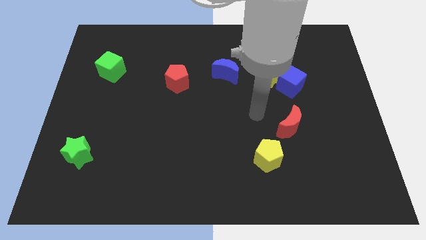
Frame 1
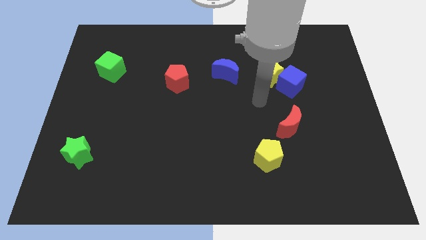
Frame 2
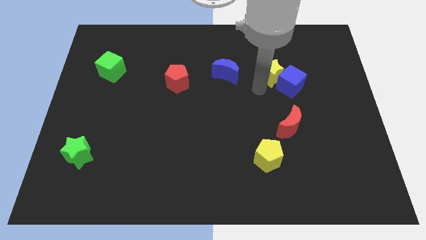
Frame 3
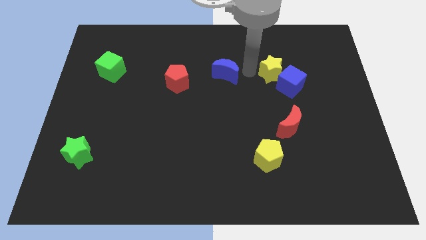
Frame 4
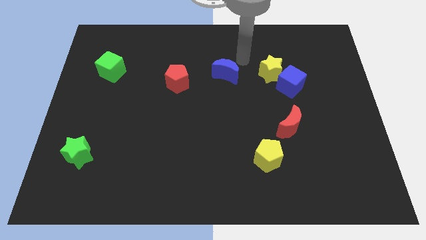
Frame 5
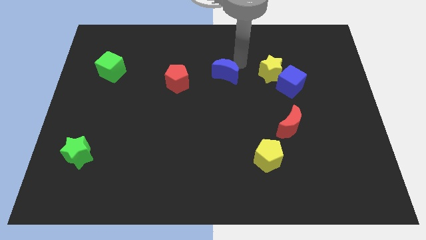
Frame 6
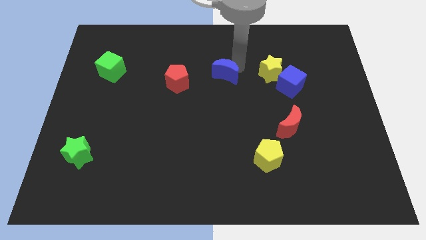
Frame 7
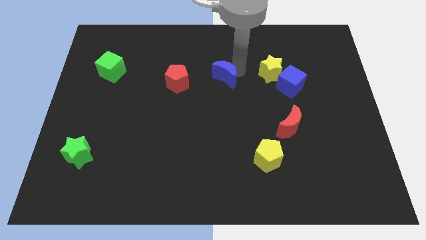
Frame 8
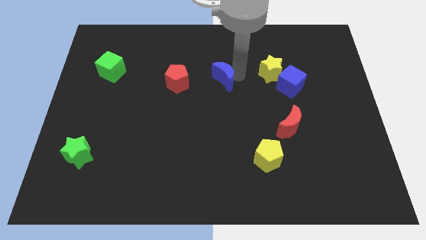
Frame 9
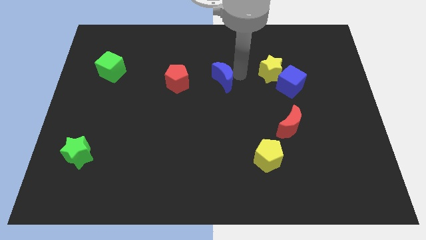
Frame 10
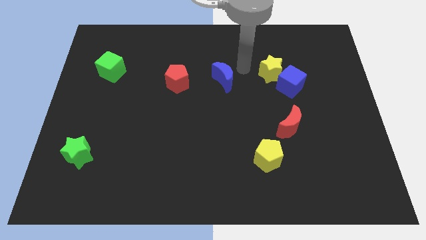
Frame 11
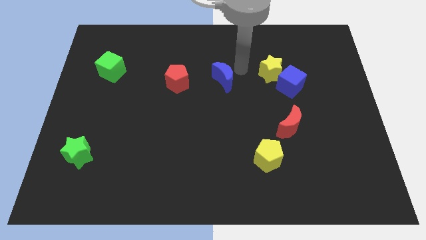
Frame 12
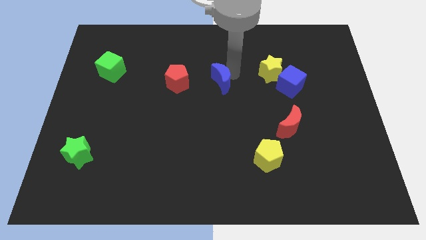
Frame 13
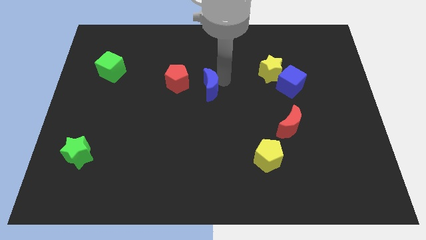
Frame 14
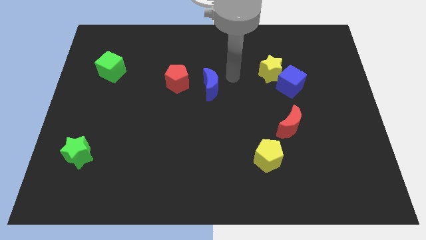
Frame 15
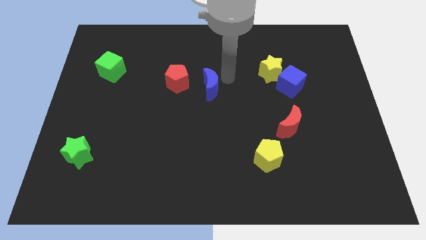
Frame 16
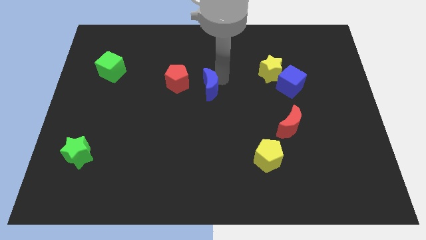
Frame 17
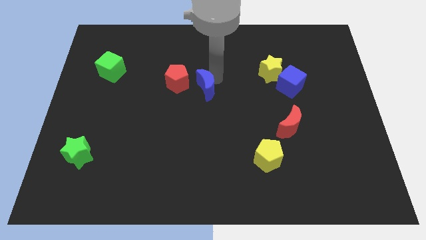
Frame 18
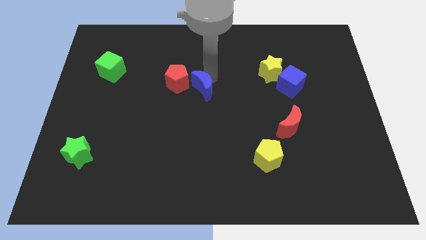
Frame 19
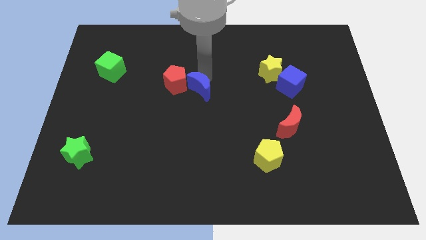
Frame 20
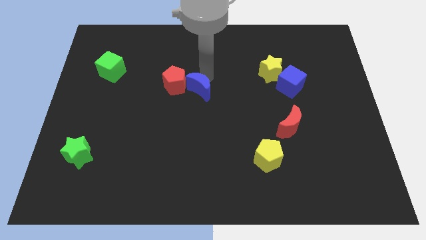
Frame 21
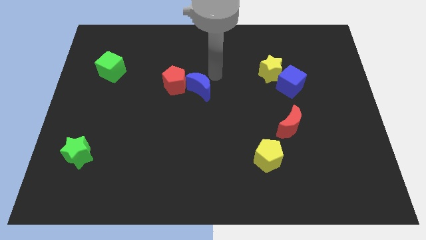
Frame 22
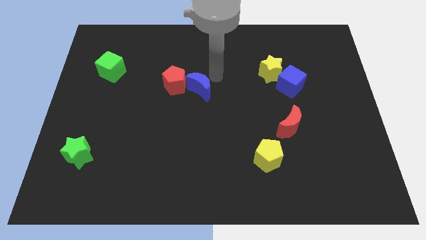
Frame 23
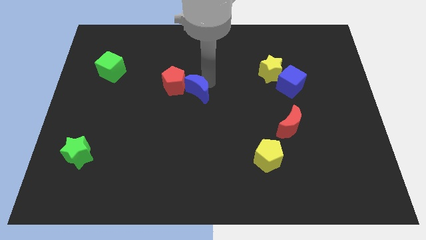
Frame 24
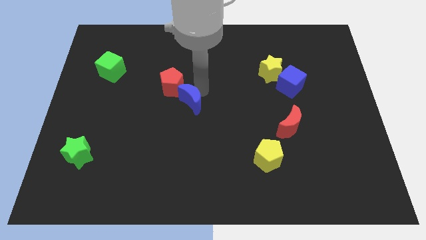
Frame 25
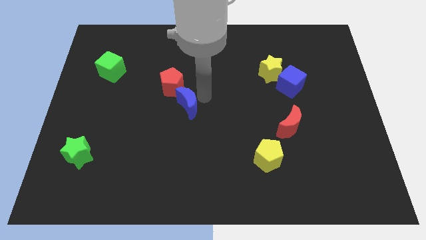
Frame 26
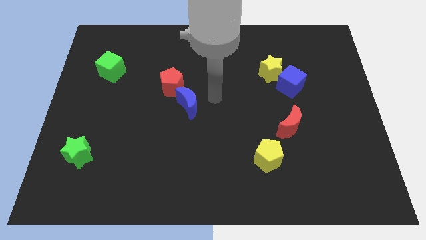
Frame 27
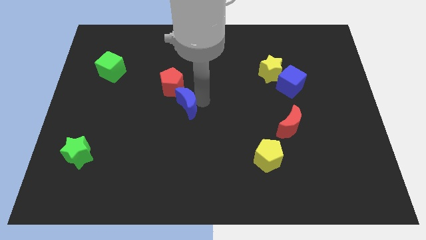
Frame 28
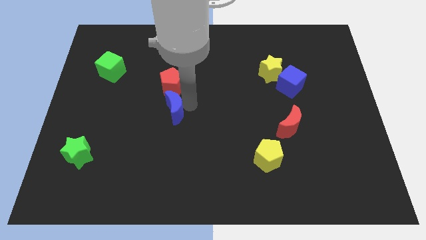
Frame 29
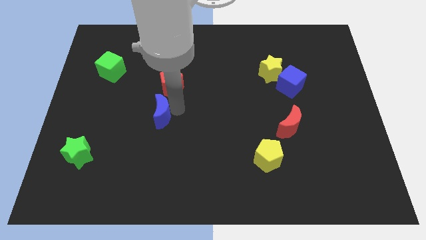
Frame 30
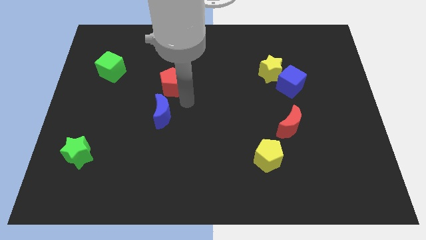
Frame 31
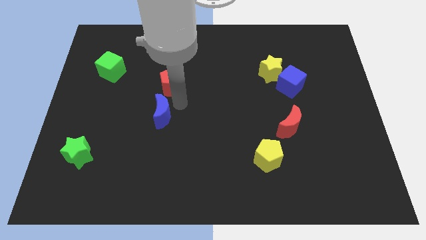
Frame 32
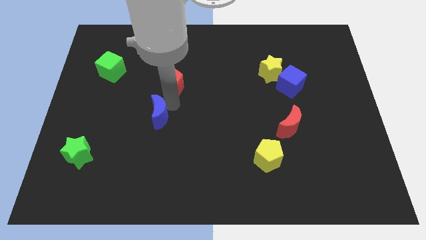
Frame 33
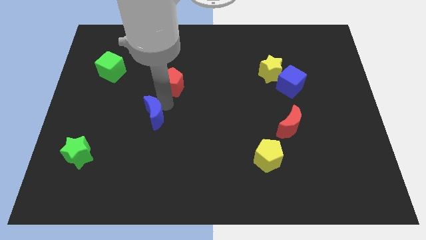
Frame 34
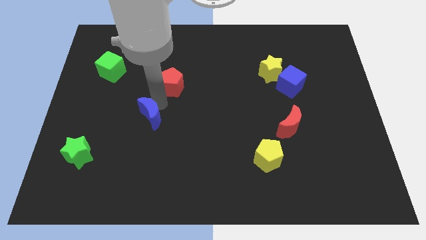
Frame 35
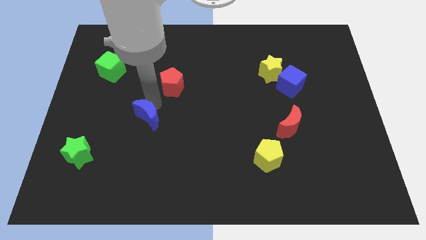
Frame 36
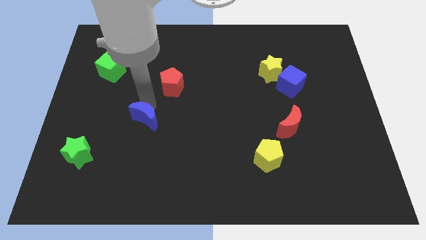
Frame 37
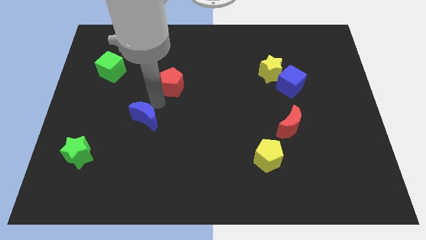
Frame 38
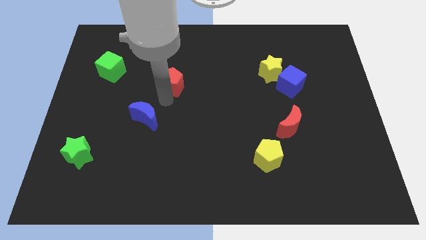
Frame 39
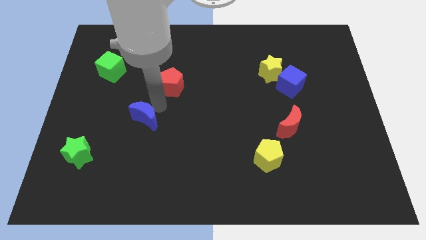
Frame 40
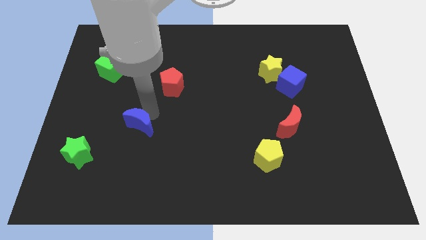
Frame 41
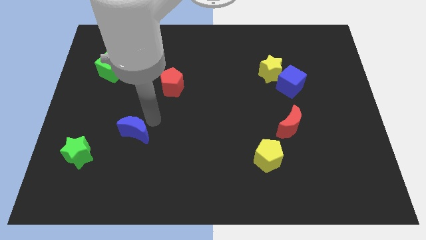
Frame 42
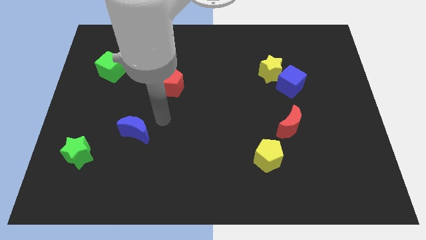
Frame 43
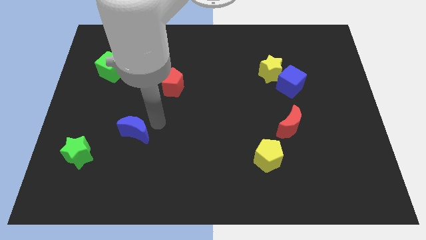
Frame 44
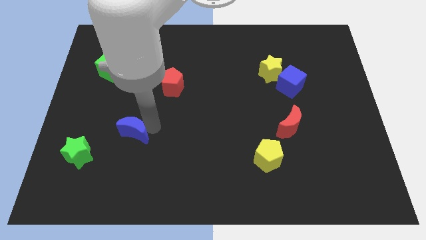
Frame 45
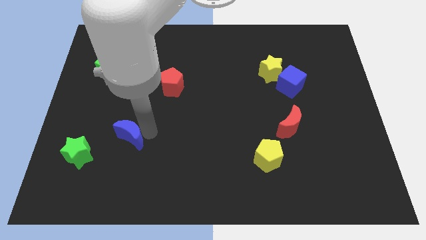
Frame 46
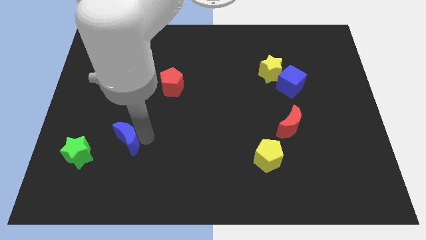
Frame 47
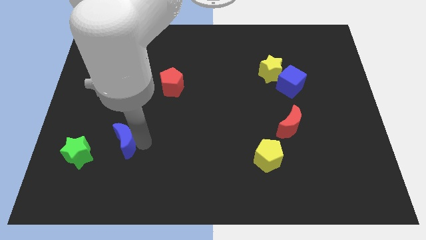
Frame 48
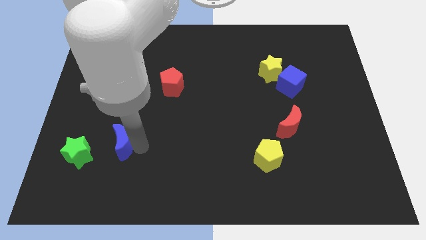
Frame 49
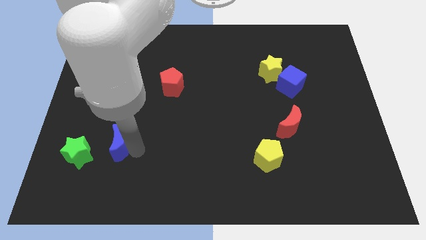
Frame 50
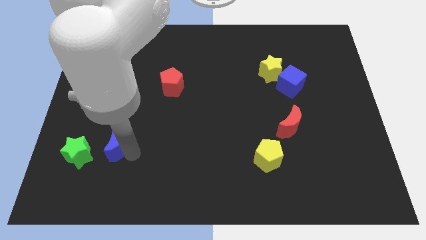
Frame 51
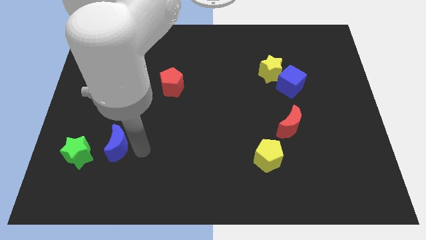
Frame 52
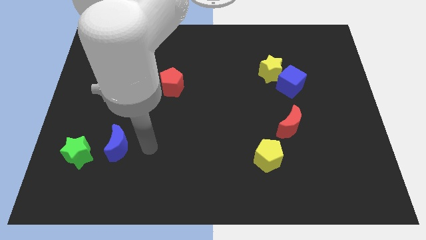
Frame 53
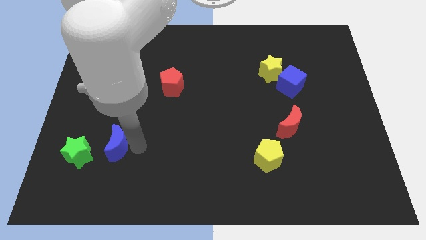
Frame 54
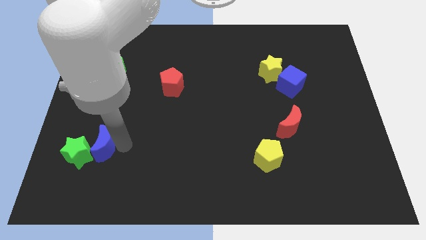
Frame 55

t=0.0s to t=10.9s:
slide the blue moon close to the green star

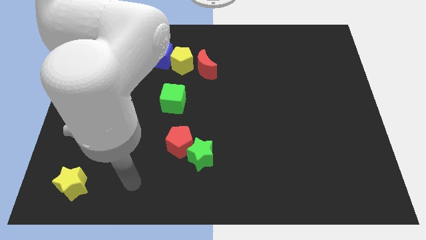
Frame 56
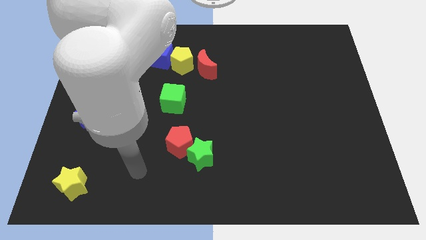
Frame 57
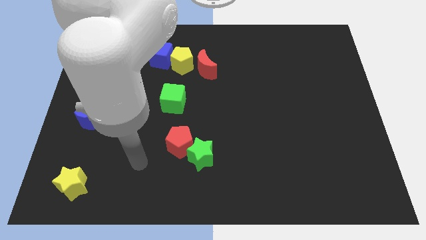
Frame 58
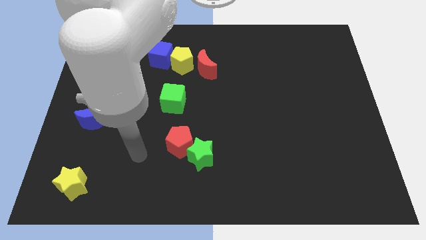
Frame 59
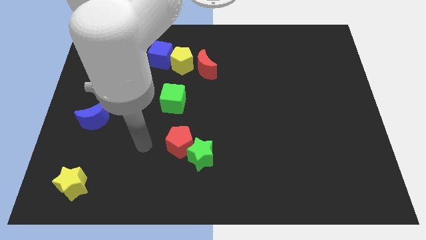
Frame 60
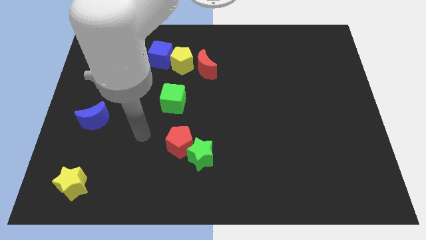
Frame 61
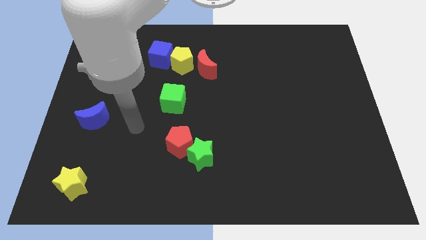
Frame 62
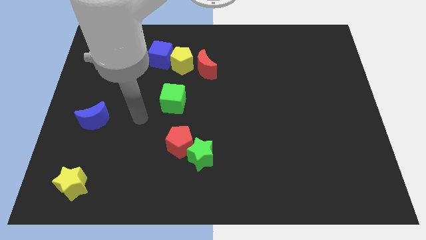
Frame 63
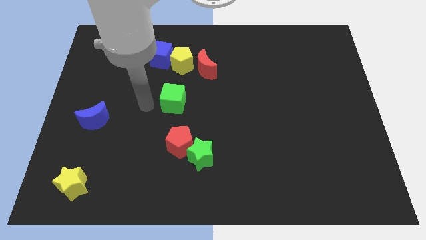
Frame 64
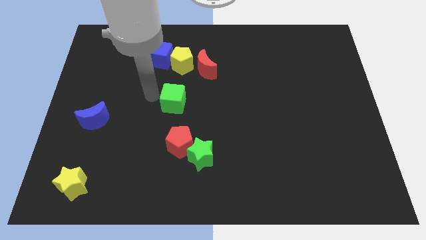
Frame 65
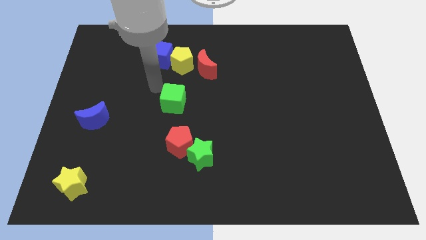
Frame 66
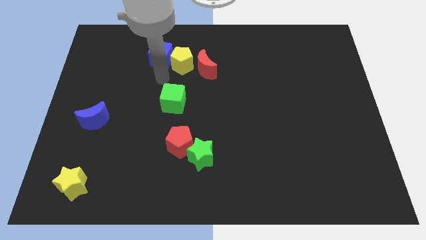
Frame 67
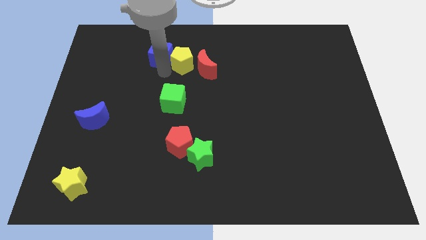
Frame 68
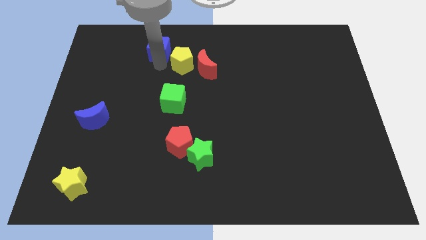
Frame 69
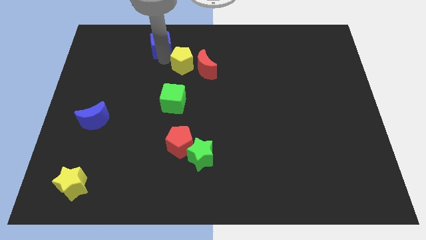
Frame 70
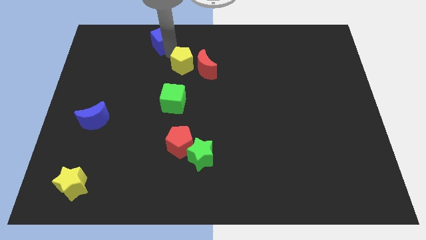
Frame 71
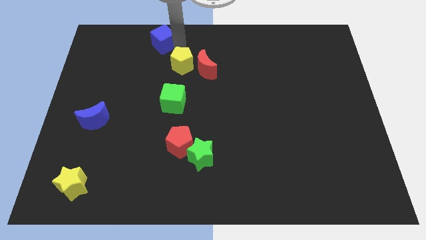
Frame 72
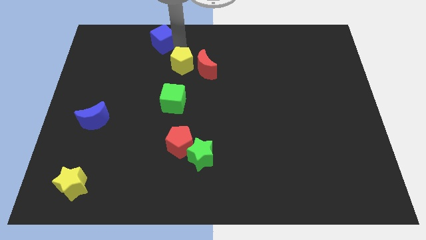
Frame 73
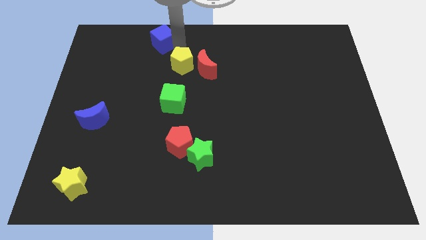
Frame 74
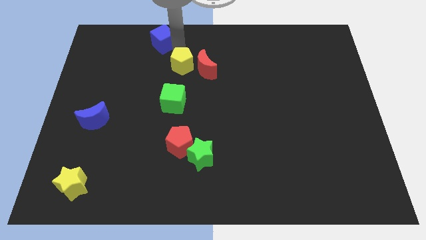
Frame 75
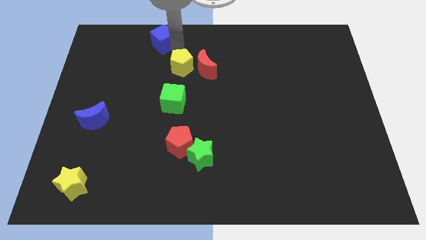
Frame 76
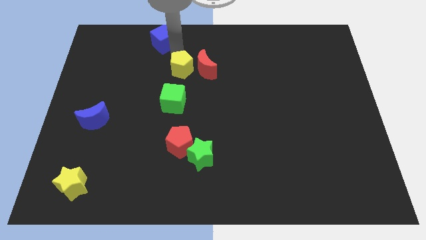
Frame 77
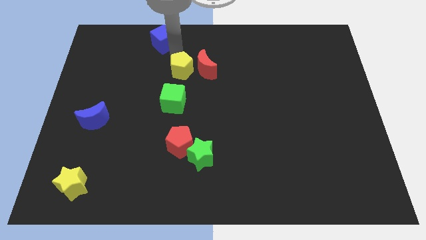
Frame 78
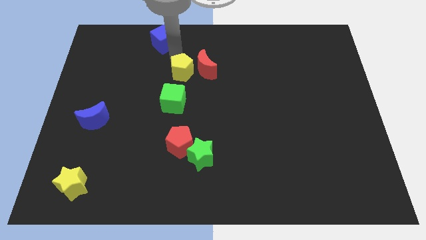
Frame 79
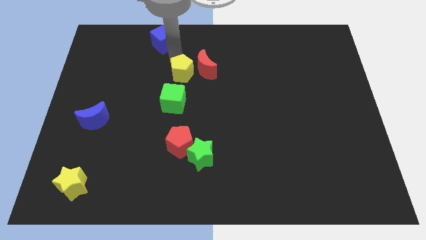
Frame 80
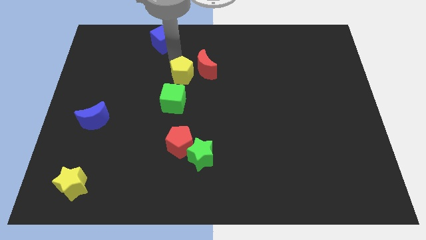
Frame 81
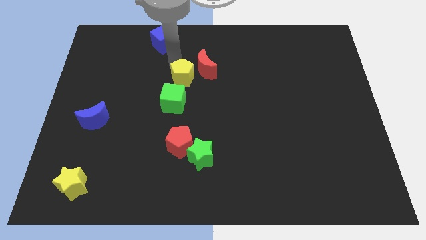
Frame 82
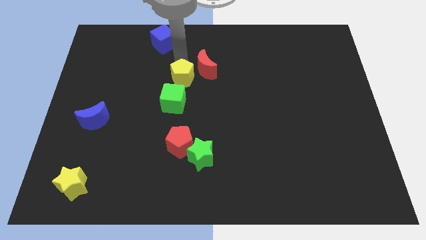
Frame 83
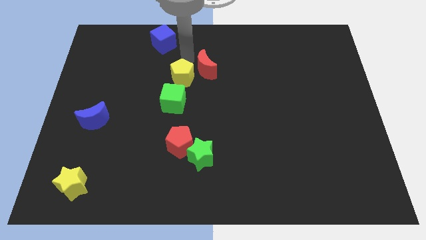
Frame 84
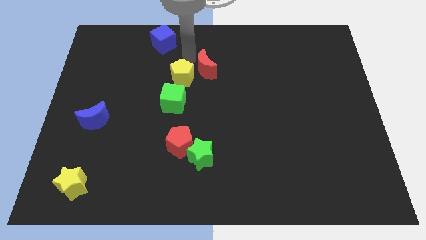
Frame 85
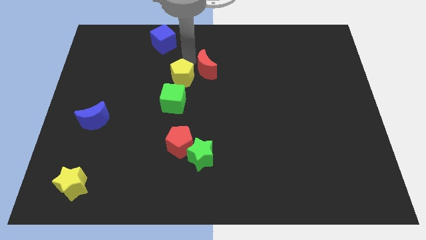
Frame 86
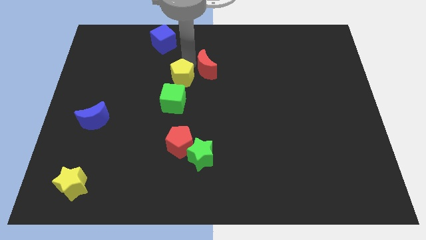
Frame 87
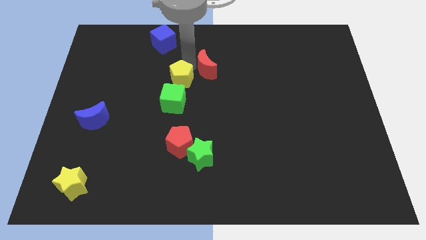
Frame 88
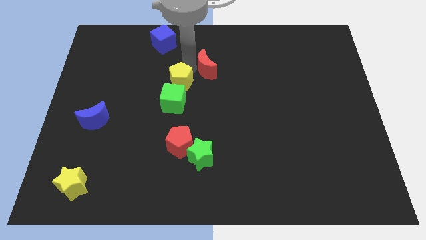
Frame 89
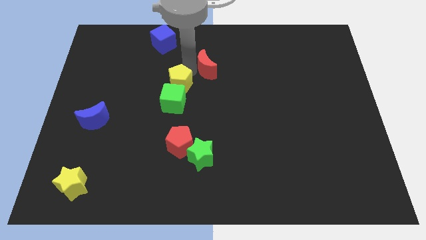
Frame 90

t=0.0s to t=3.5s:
put the yellow pentagon to the green cube
